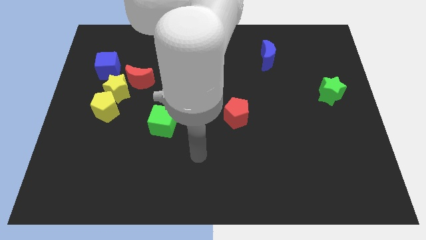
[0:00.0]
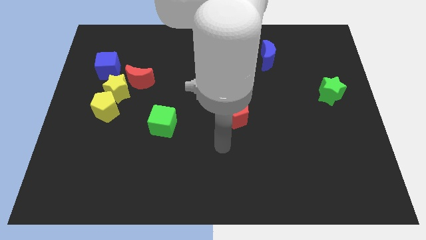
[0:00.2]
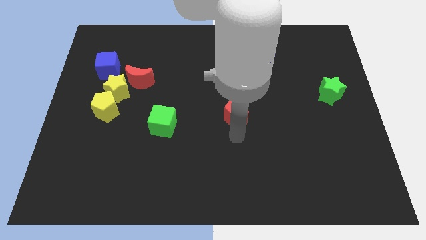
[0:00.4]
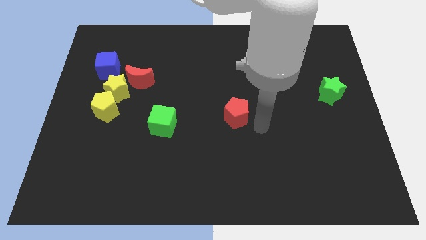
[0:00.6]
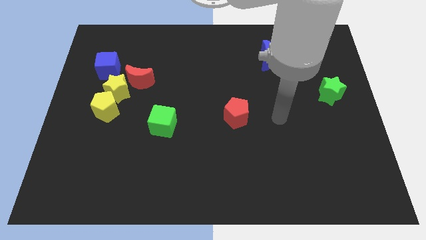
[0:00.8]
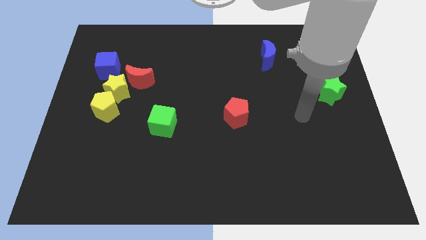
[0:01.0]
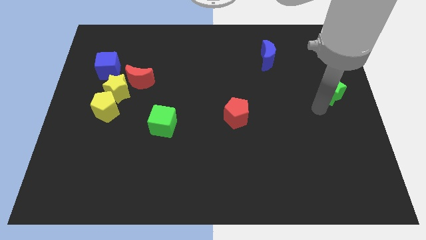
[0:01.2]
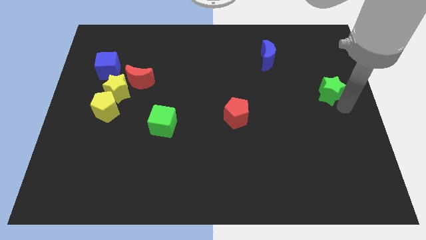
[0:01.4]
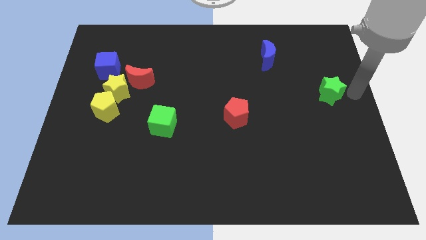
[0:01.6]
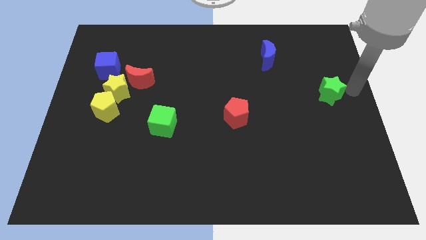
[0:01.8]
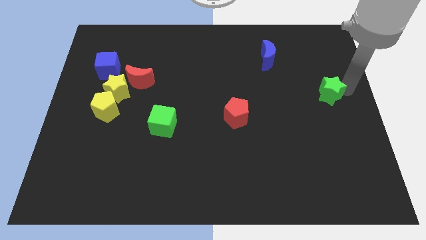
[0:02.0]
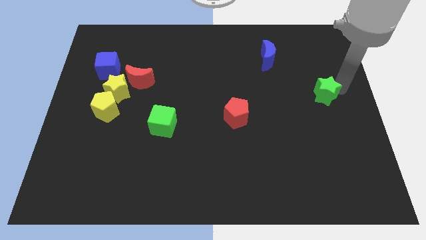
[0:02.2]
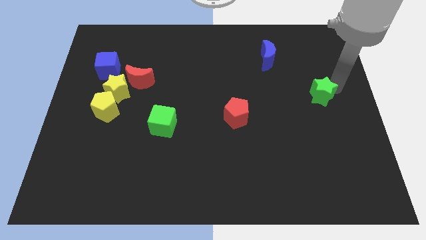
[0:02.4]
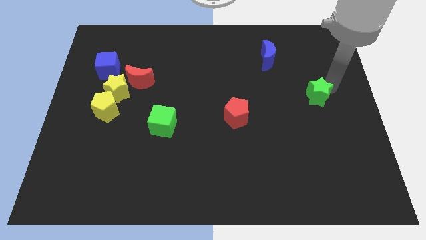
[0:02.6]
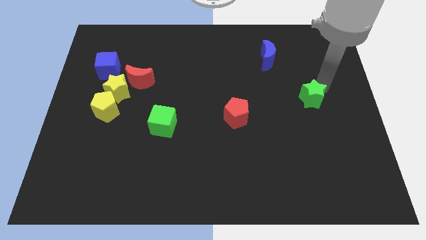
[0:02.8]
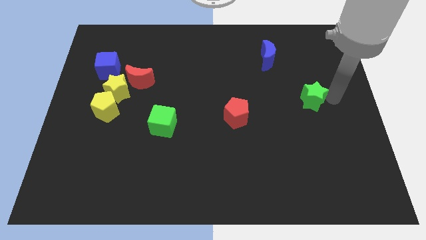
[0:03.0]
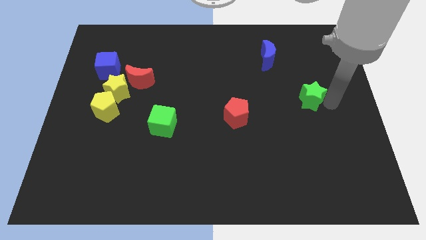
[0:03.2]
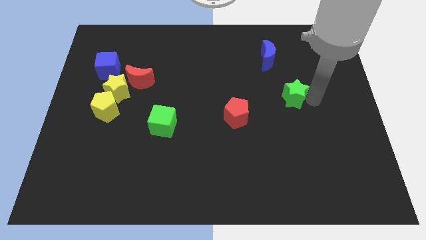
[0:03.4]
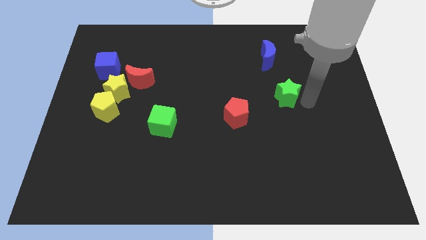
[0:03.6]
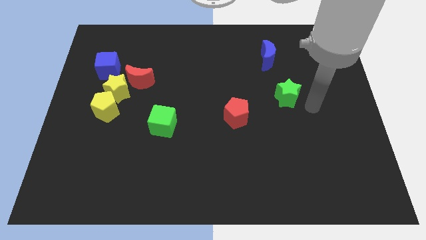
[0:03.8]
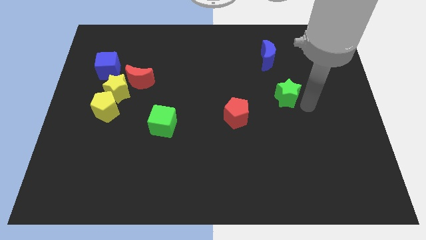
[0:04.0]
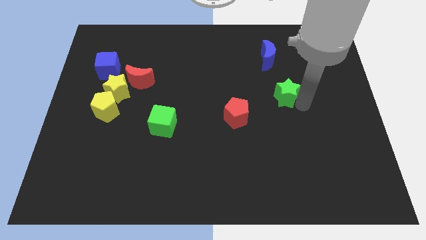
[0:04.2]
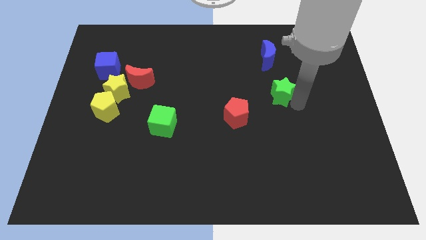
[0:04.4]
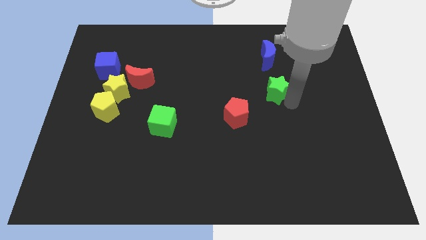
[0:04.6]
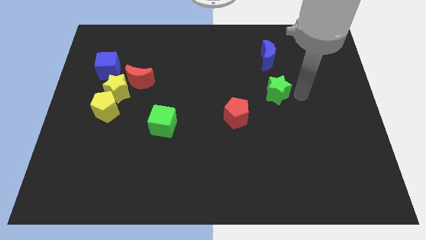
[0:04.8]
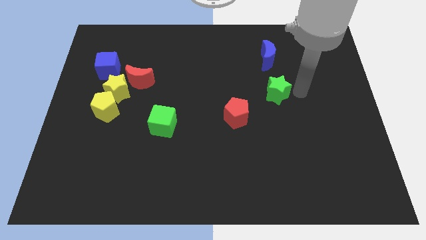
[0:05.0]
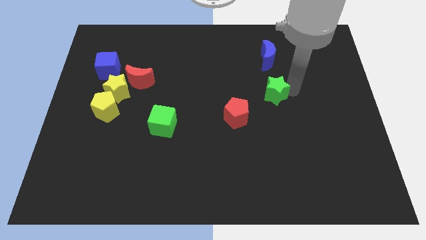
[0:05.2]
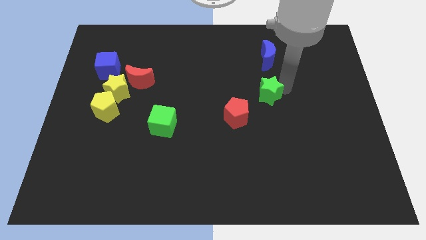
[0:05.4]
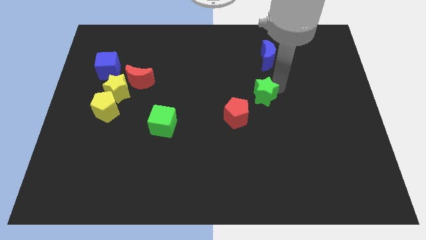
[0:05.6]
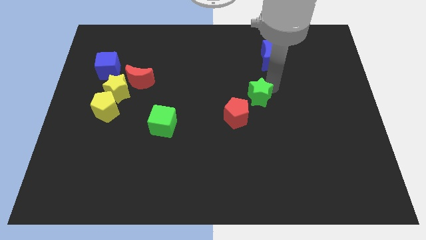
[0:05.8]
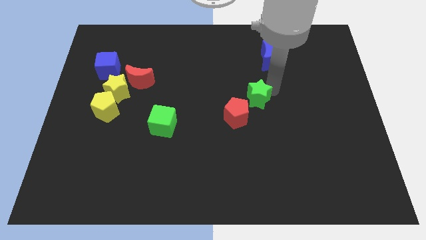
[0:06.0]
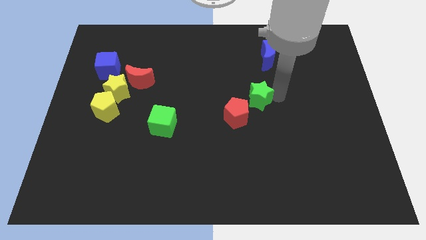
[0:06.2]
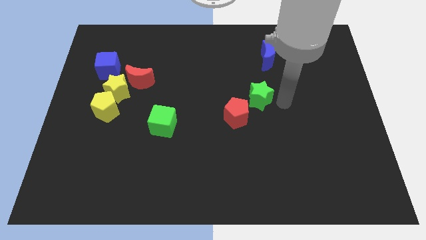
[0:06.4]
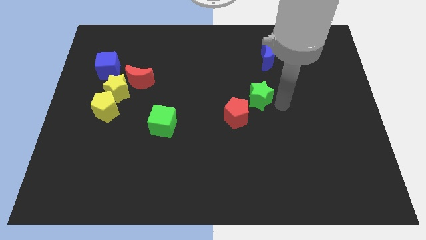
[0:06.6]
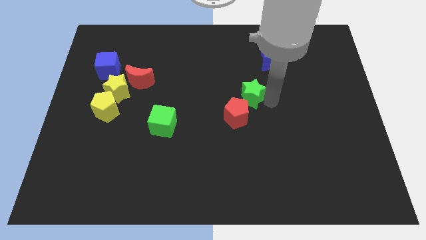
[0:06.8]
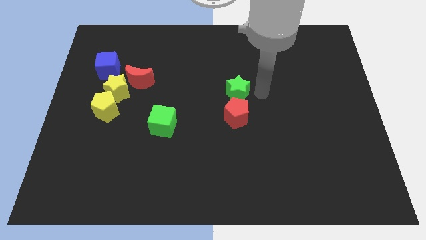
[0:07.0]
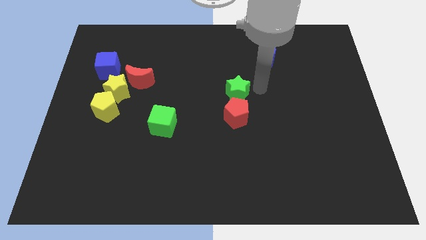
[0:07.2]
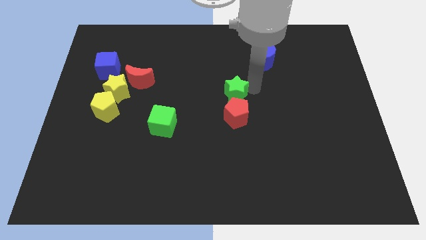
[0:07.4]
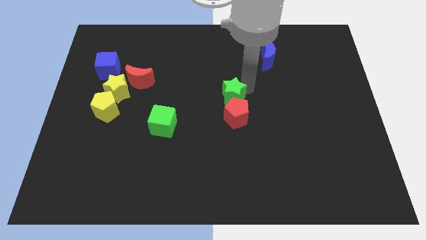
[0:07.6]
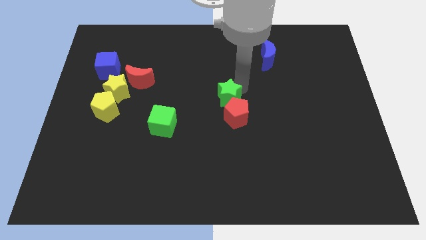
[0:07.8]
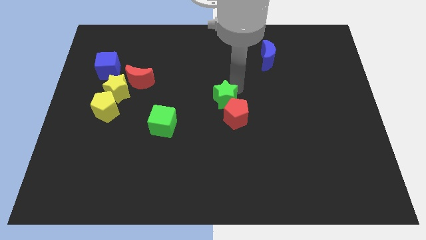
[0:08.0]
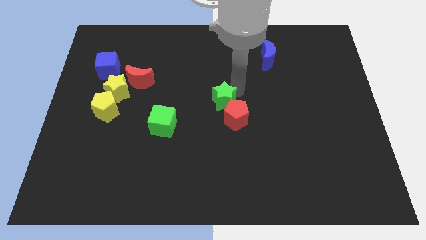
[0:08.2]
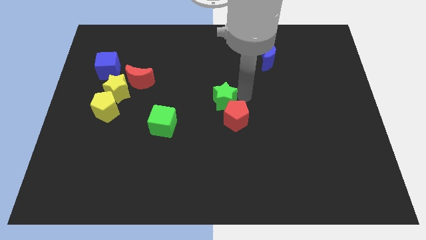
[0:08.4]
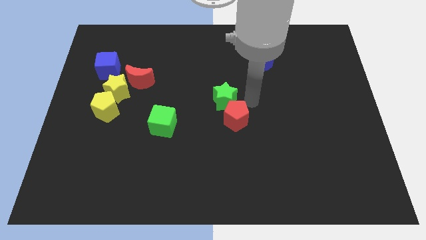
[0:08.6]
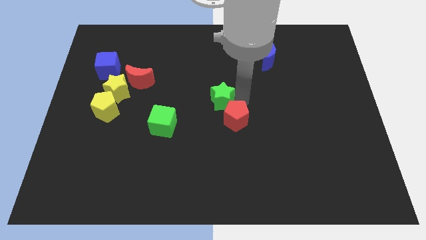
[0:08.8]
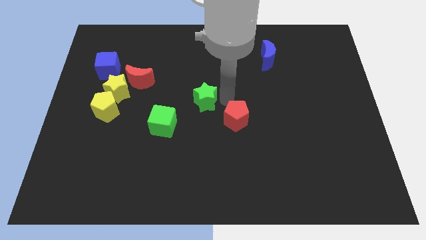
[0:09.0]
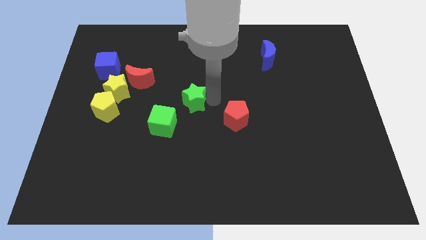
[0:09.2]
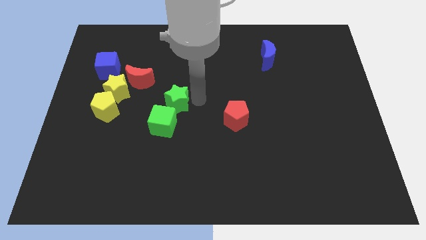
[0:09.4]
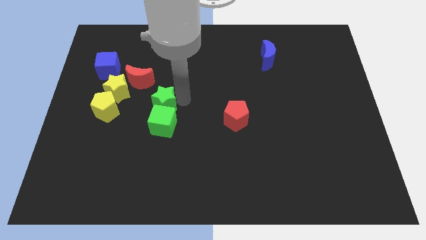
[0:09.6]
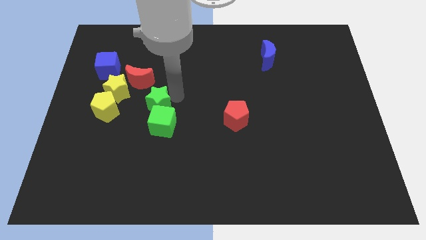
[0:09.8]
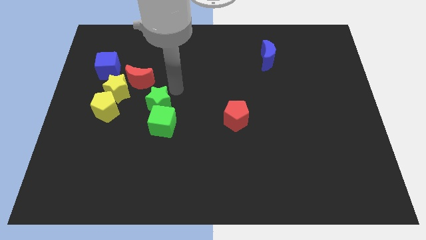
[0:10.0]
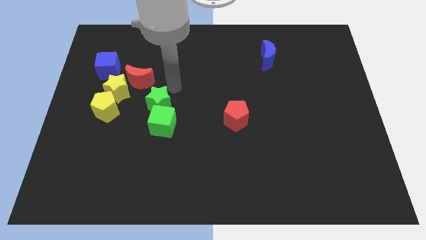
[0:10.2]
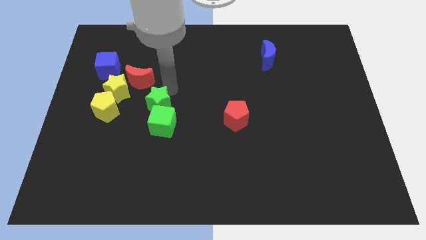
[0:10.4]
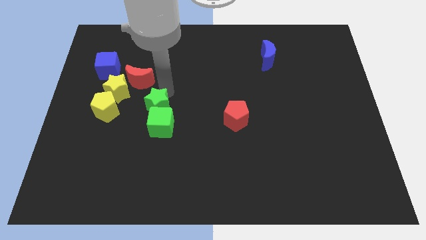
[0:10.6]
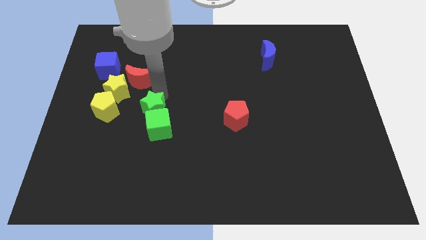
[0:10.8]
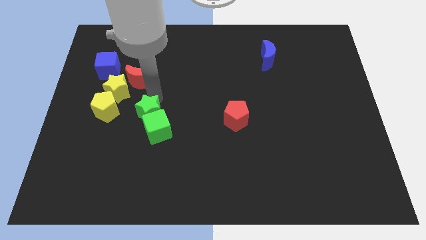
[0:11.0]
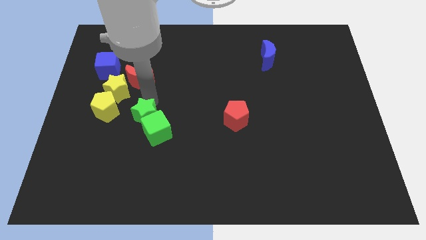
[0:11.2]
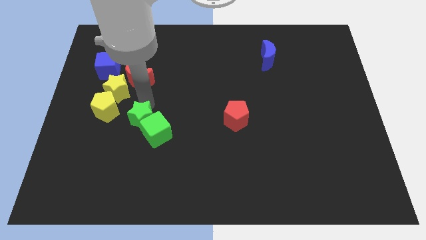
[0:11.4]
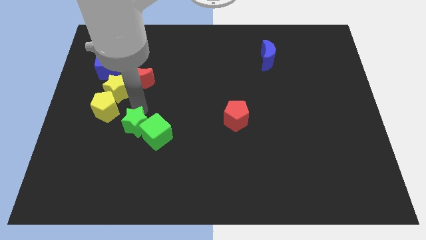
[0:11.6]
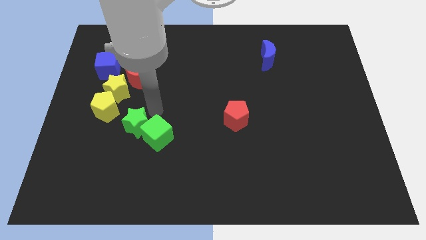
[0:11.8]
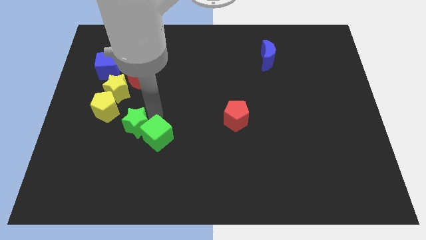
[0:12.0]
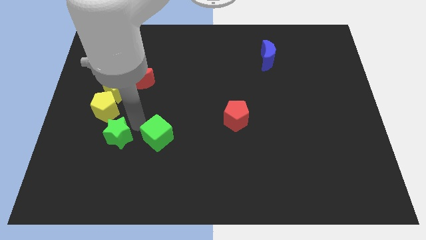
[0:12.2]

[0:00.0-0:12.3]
move the green star to the bottom side of the yellow pentagon
